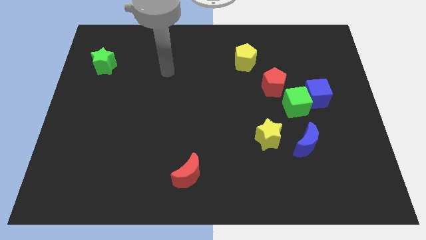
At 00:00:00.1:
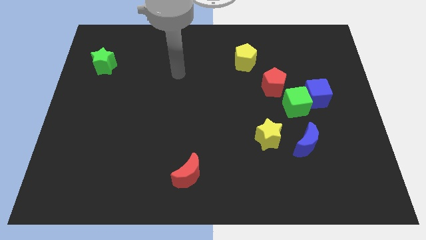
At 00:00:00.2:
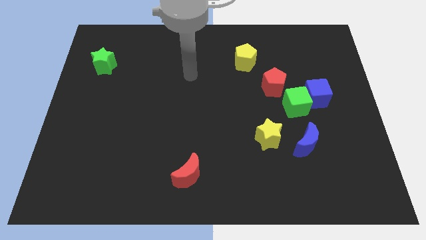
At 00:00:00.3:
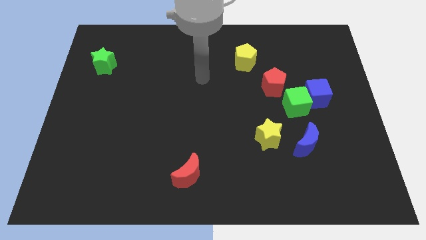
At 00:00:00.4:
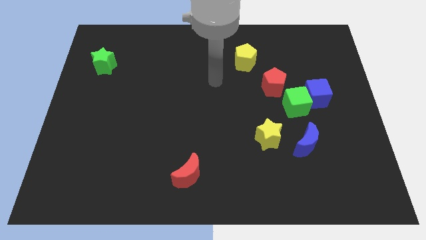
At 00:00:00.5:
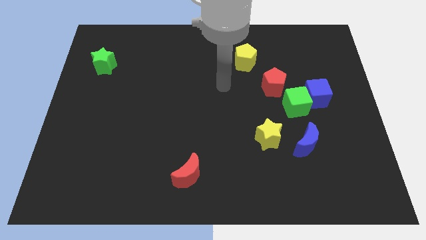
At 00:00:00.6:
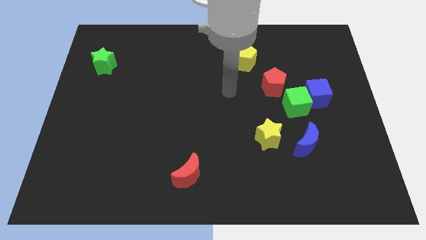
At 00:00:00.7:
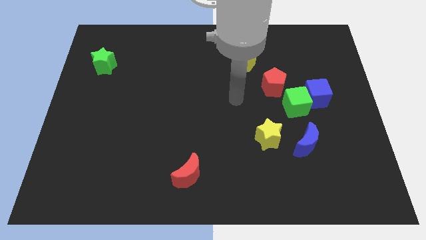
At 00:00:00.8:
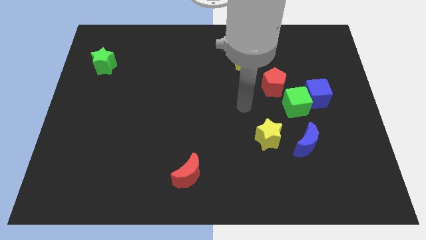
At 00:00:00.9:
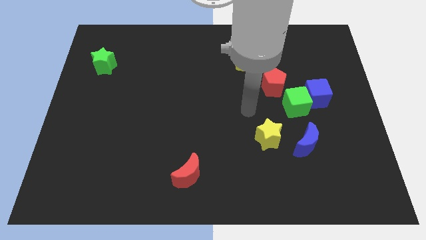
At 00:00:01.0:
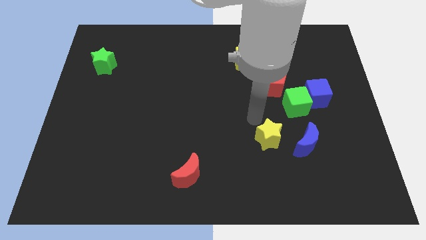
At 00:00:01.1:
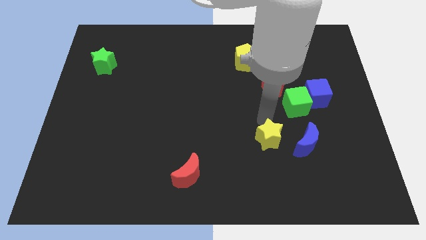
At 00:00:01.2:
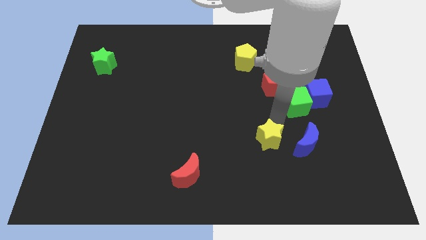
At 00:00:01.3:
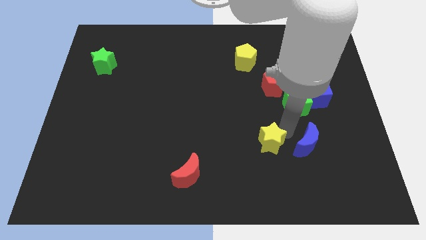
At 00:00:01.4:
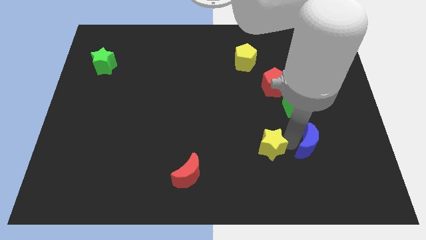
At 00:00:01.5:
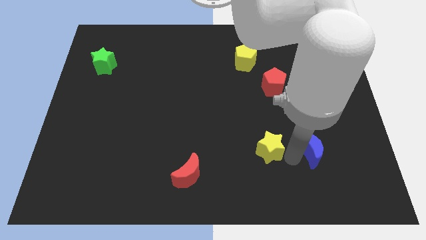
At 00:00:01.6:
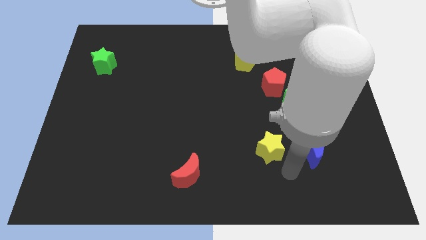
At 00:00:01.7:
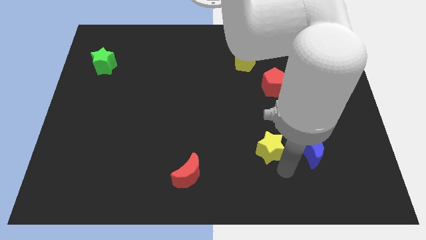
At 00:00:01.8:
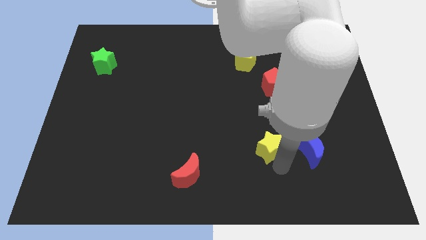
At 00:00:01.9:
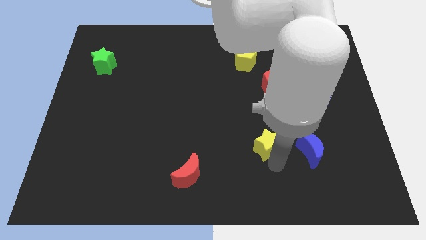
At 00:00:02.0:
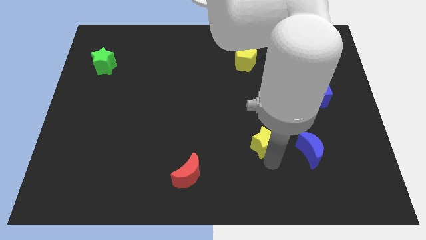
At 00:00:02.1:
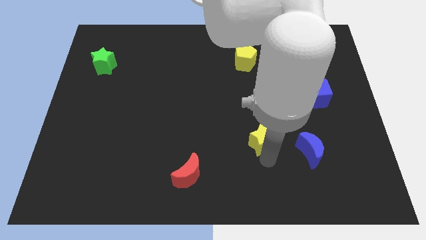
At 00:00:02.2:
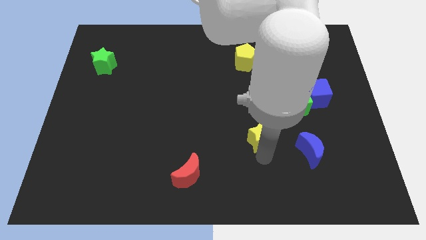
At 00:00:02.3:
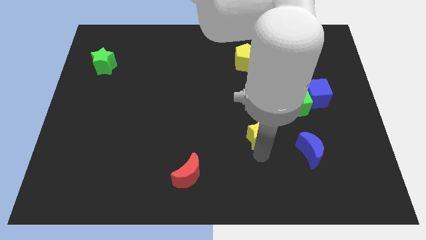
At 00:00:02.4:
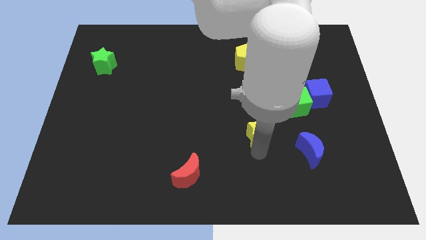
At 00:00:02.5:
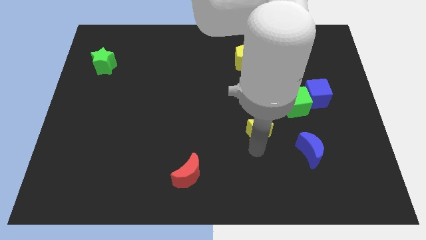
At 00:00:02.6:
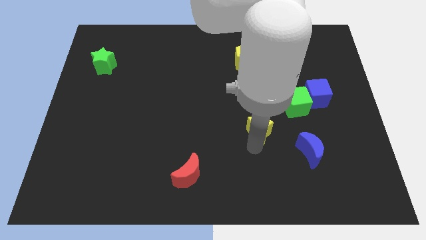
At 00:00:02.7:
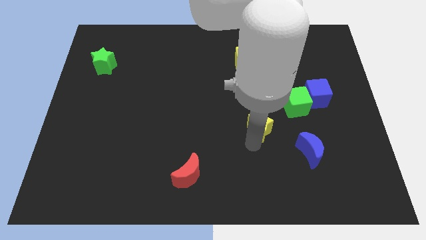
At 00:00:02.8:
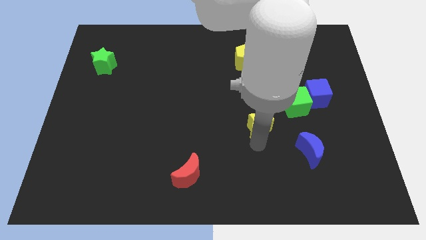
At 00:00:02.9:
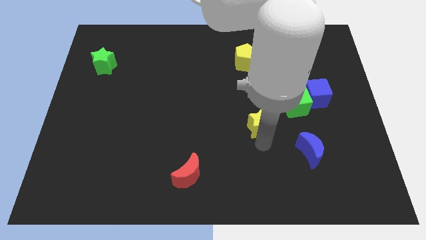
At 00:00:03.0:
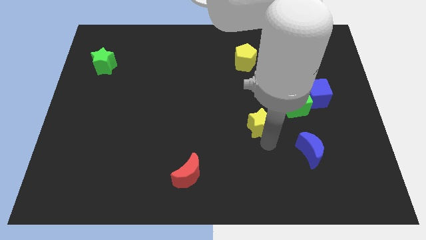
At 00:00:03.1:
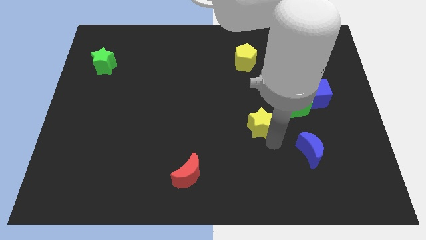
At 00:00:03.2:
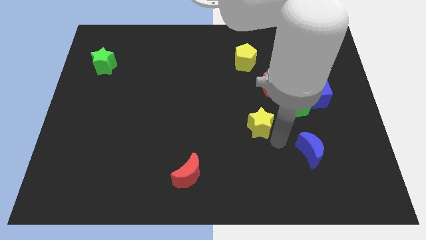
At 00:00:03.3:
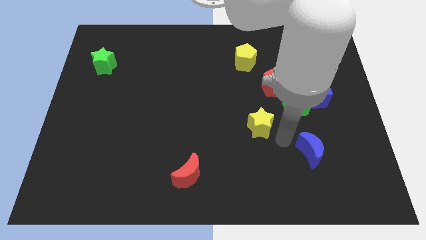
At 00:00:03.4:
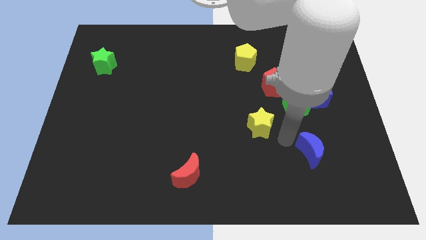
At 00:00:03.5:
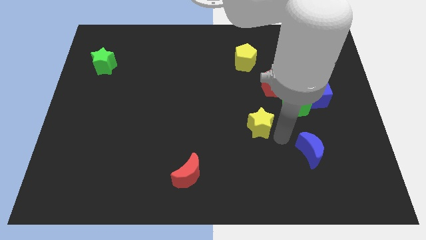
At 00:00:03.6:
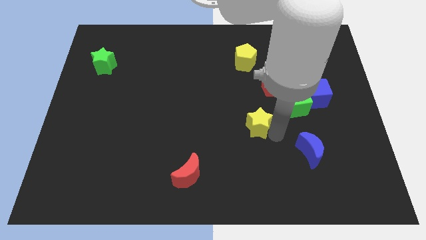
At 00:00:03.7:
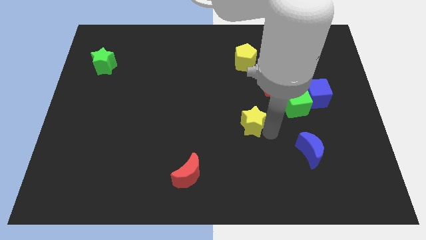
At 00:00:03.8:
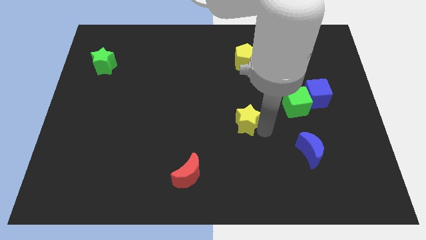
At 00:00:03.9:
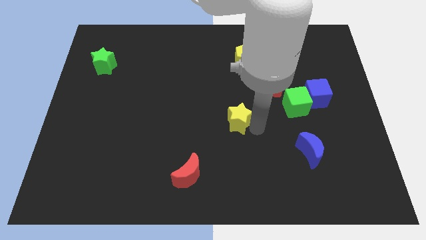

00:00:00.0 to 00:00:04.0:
slightly slide the yellow star up and left

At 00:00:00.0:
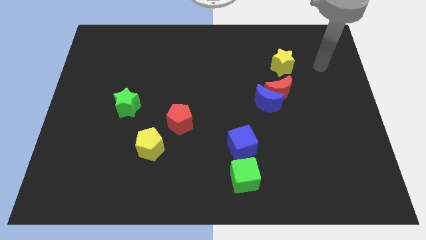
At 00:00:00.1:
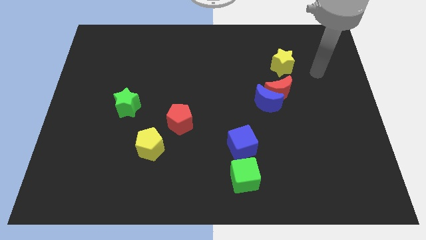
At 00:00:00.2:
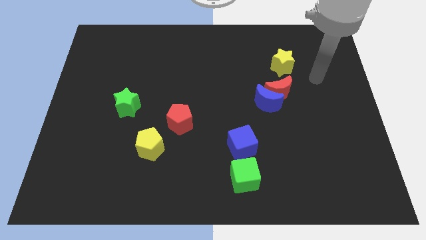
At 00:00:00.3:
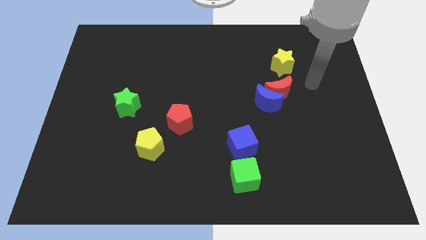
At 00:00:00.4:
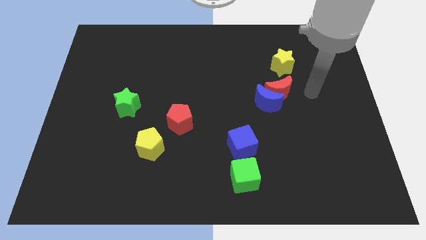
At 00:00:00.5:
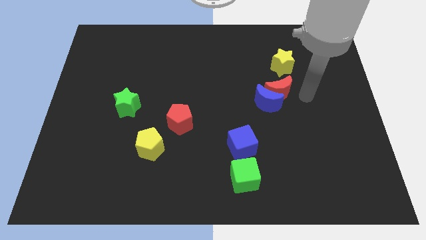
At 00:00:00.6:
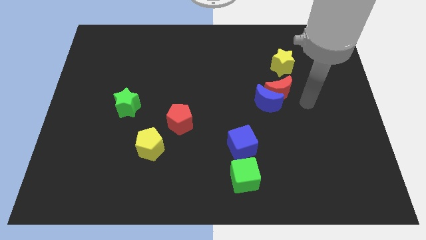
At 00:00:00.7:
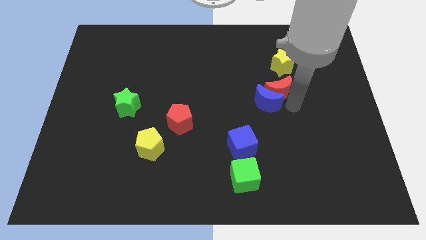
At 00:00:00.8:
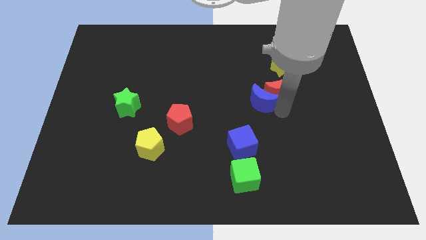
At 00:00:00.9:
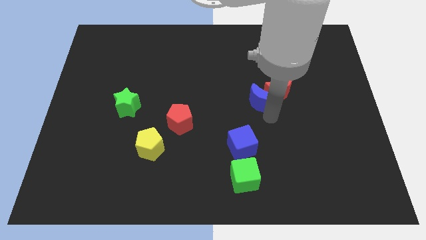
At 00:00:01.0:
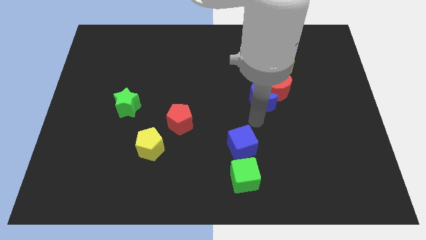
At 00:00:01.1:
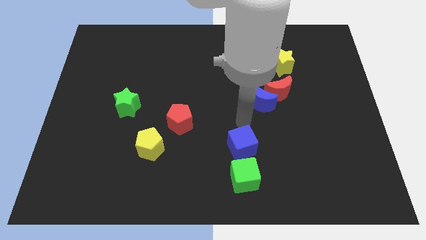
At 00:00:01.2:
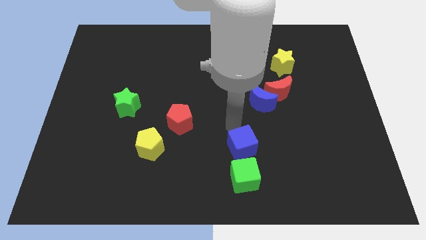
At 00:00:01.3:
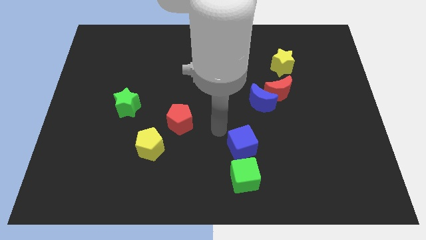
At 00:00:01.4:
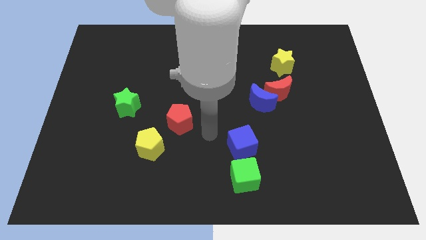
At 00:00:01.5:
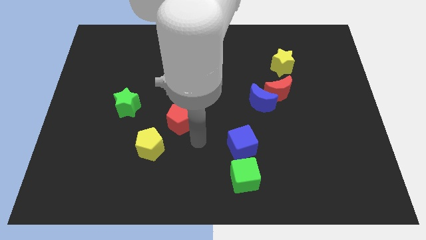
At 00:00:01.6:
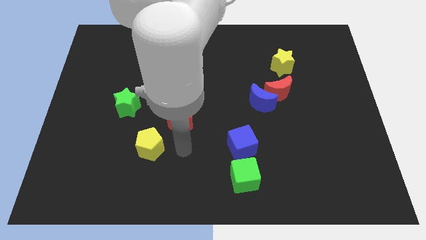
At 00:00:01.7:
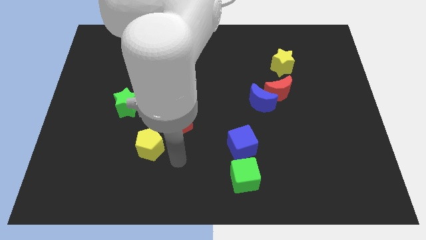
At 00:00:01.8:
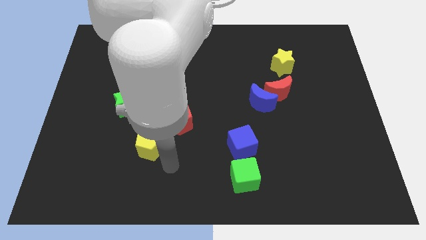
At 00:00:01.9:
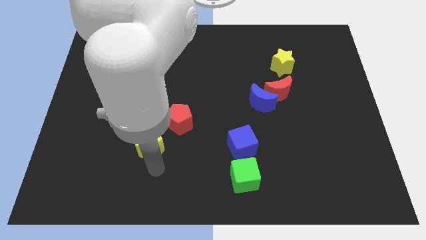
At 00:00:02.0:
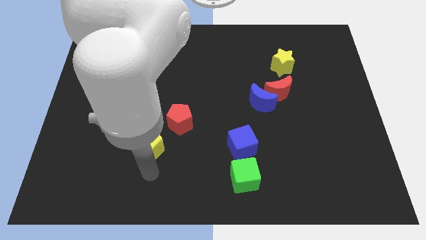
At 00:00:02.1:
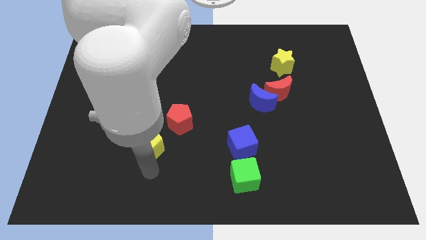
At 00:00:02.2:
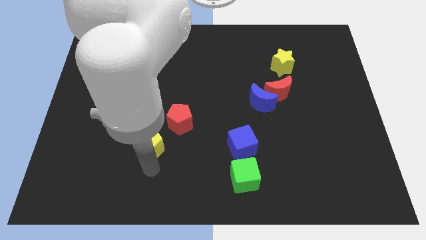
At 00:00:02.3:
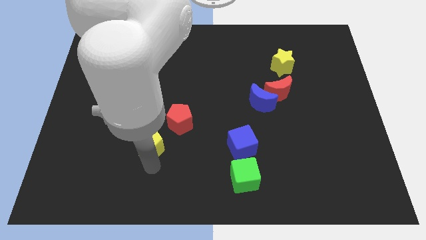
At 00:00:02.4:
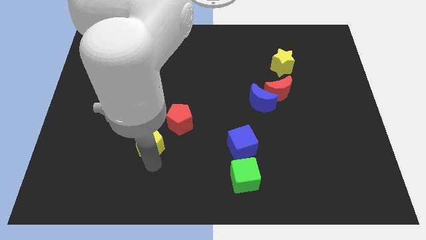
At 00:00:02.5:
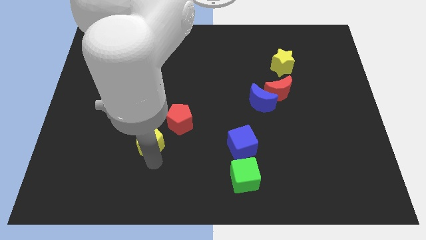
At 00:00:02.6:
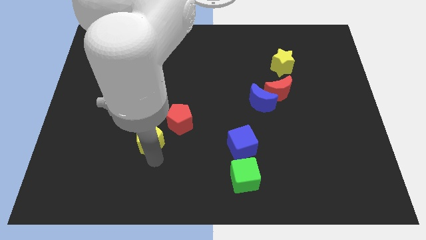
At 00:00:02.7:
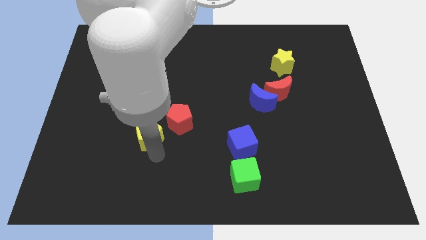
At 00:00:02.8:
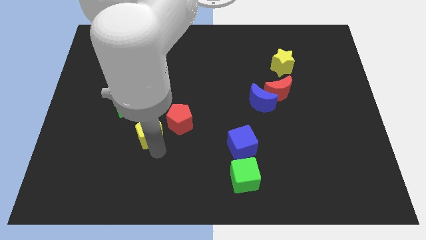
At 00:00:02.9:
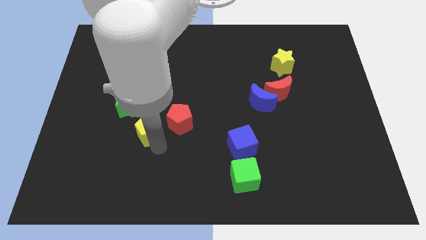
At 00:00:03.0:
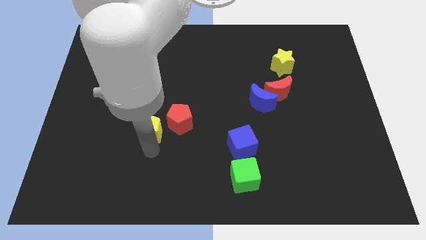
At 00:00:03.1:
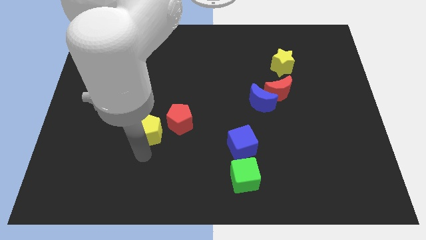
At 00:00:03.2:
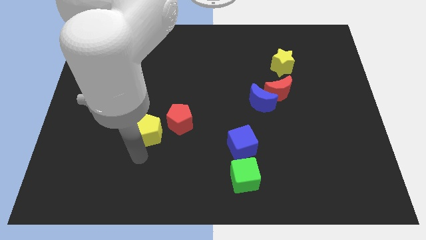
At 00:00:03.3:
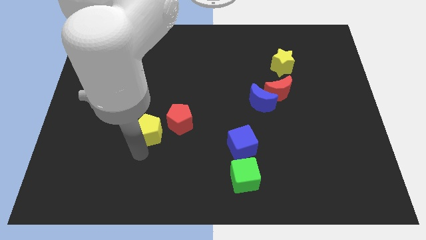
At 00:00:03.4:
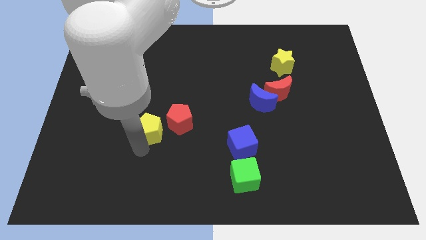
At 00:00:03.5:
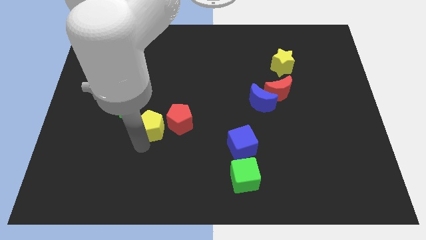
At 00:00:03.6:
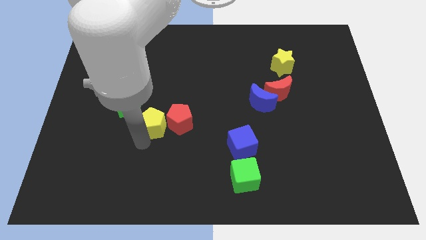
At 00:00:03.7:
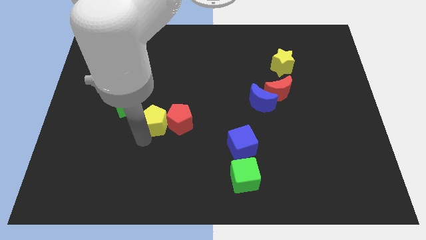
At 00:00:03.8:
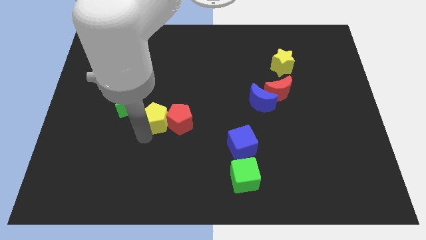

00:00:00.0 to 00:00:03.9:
push the yellow pentagon a little upwards

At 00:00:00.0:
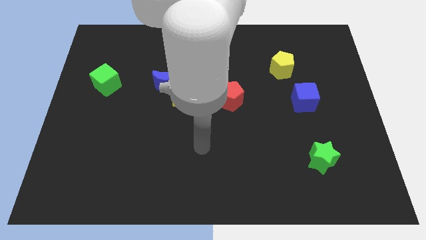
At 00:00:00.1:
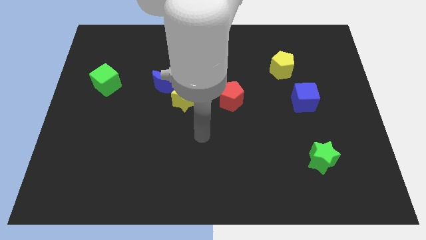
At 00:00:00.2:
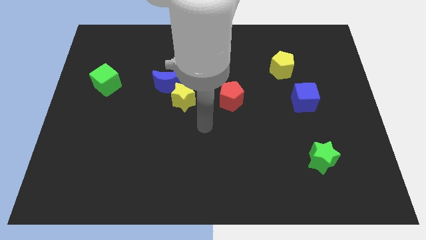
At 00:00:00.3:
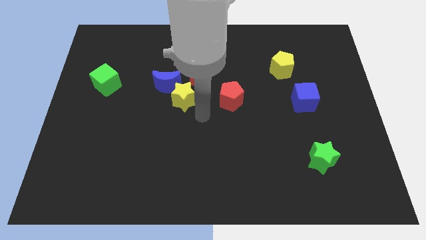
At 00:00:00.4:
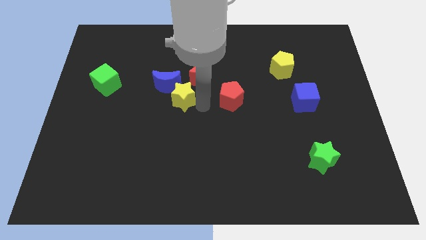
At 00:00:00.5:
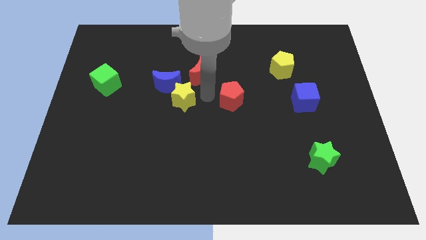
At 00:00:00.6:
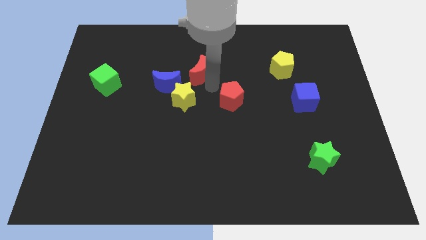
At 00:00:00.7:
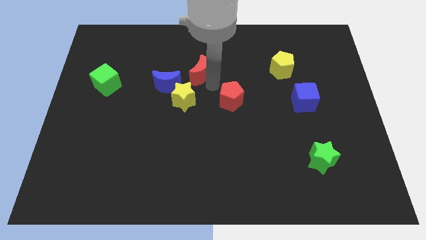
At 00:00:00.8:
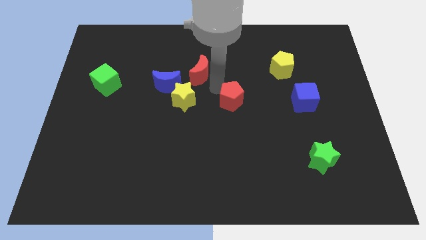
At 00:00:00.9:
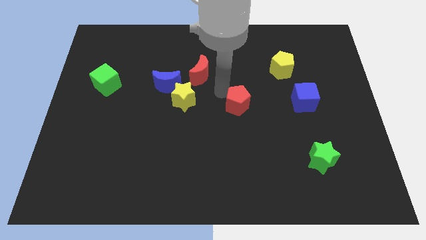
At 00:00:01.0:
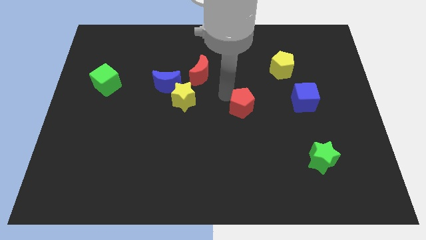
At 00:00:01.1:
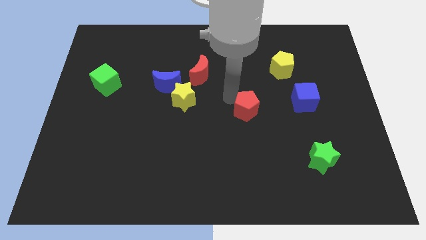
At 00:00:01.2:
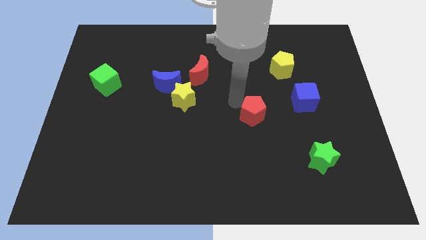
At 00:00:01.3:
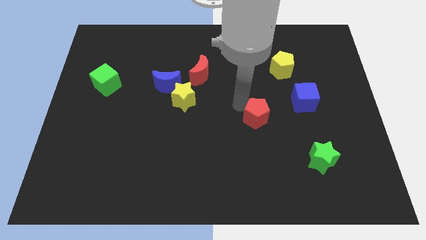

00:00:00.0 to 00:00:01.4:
slightly move the red pentagon diagonally down and to the right
